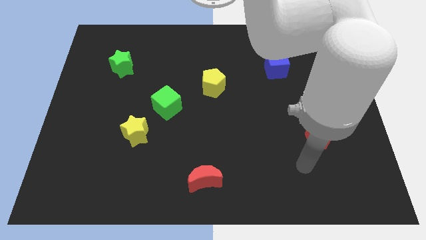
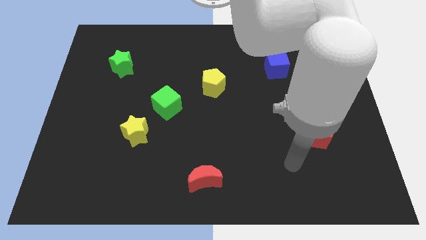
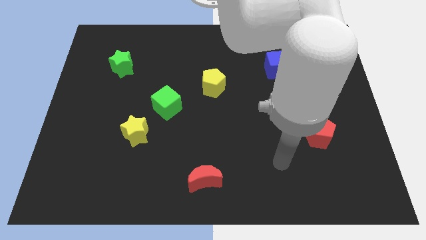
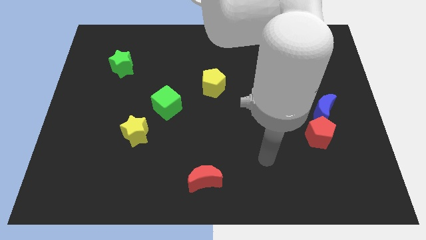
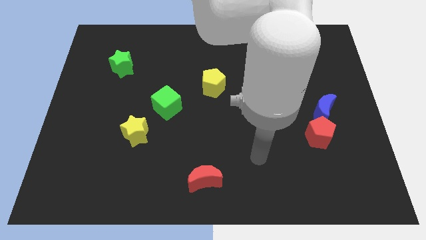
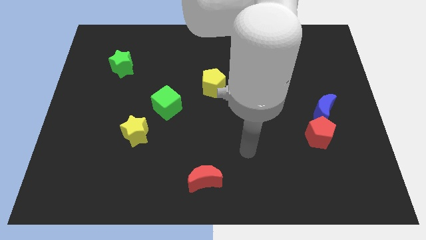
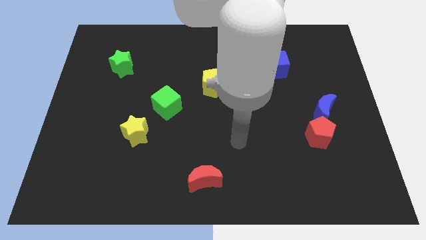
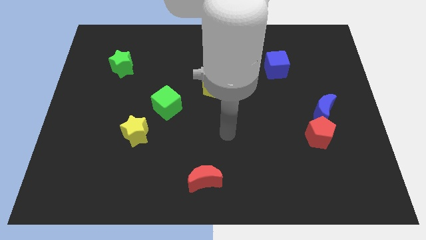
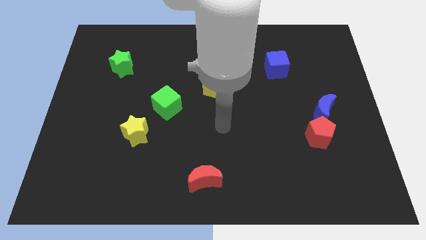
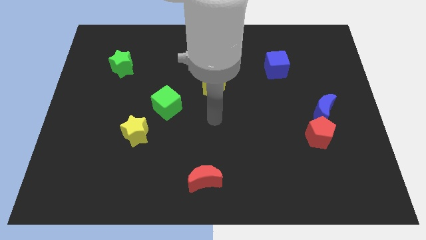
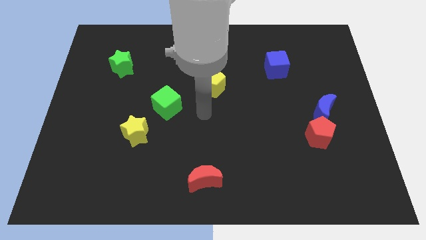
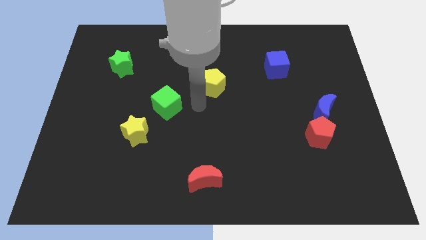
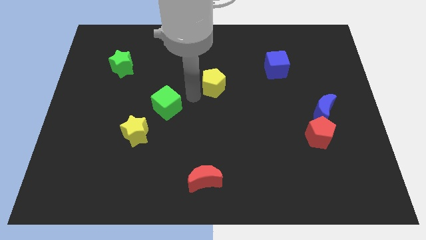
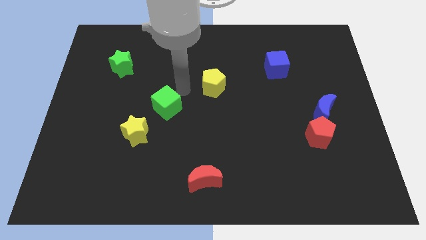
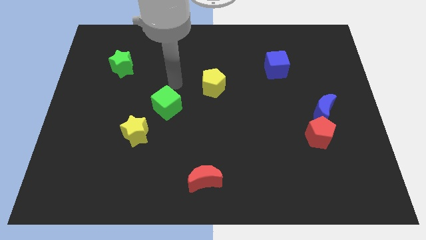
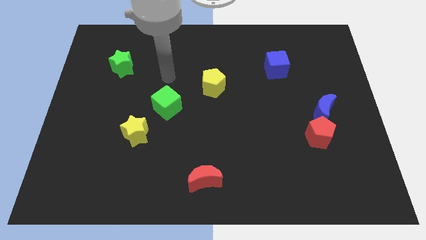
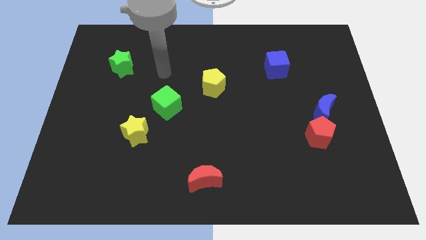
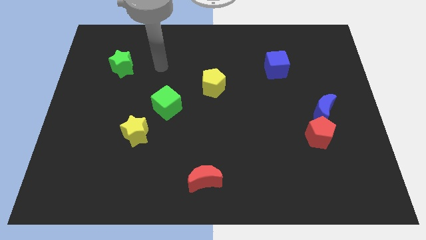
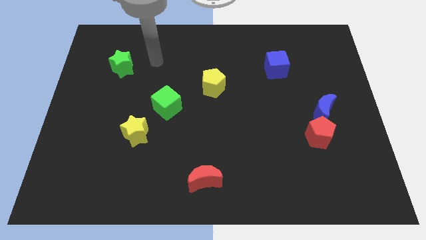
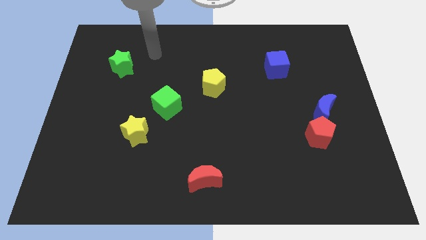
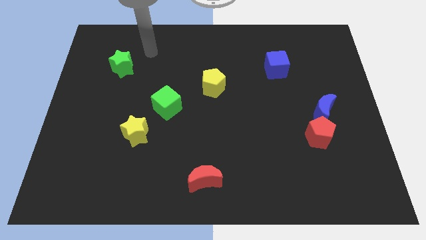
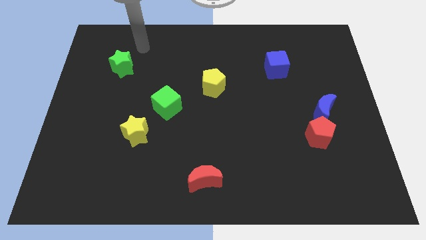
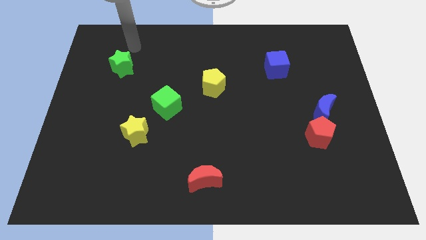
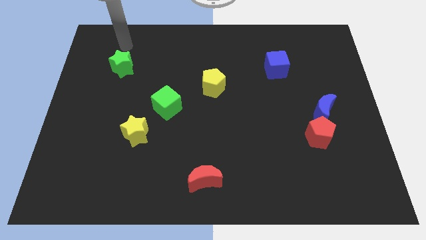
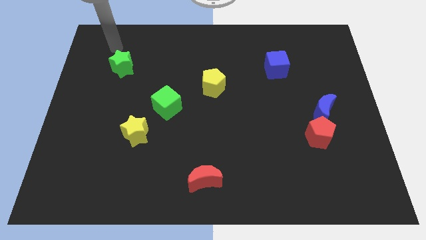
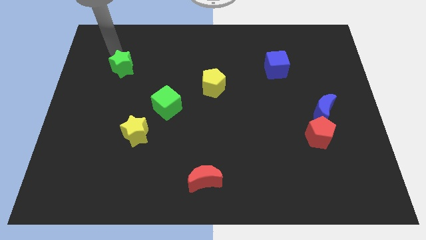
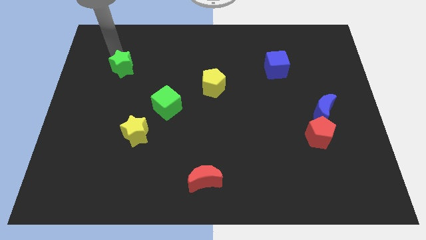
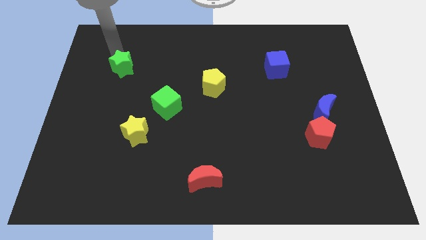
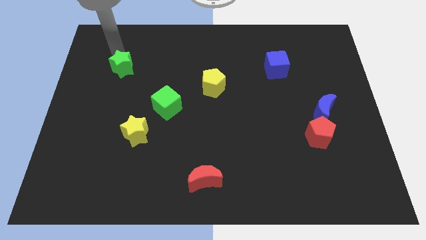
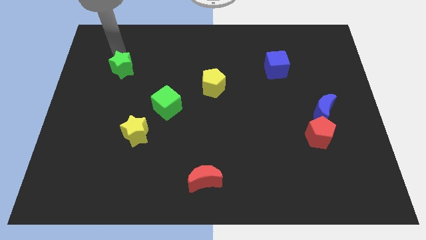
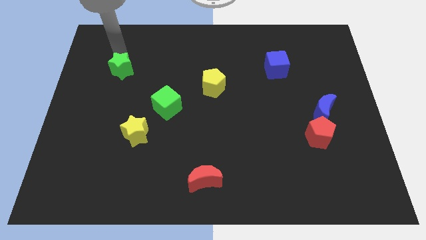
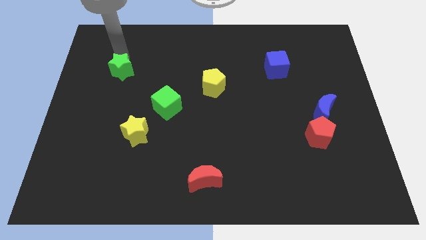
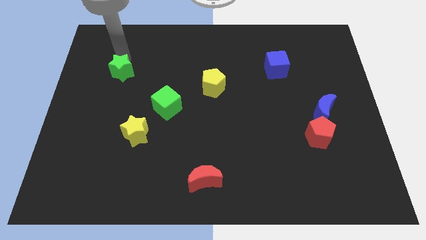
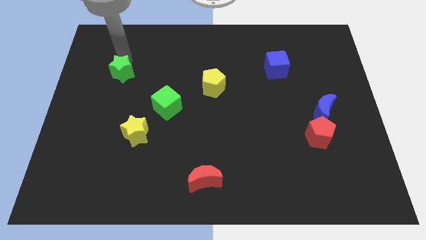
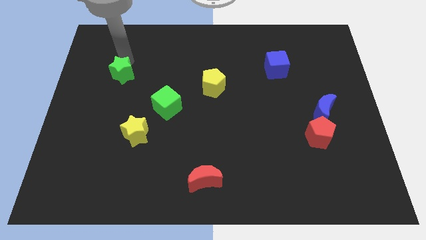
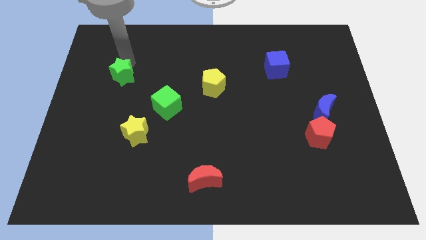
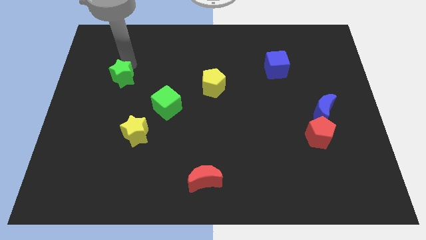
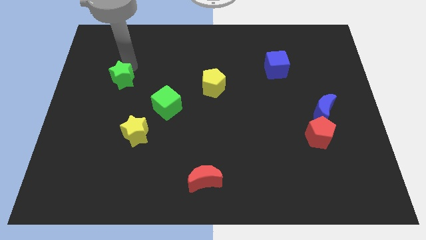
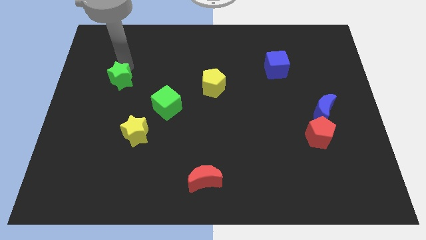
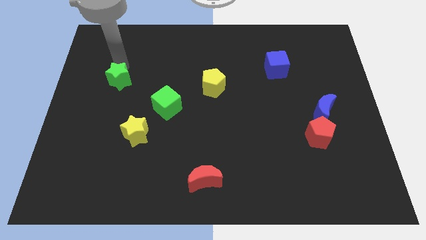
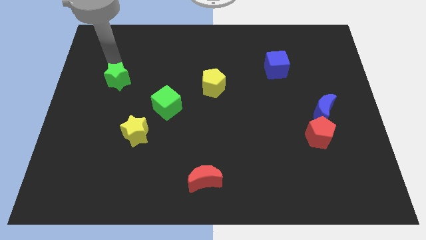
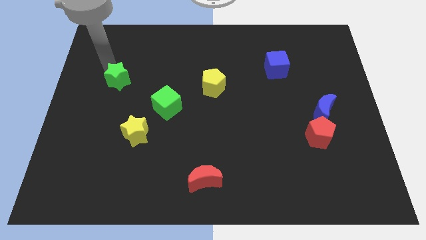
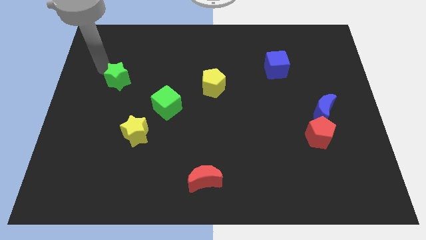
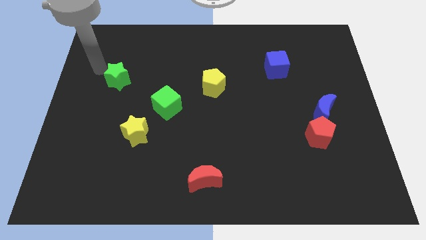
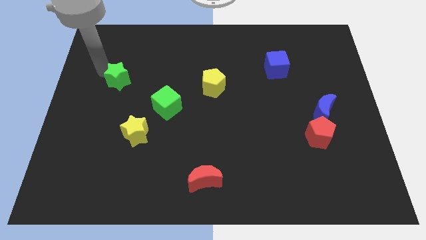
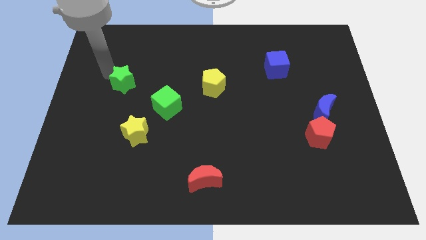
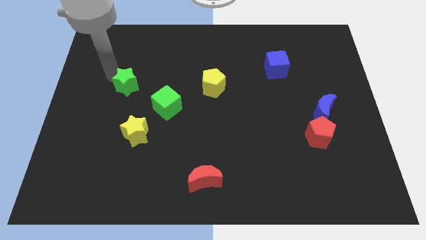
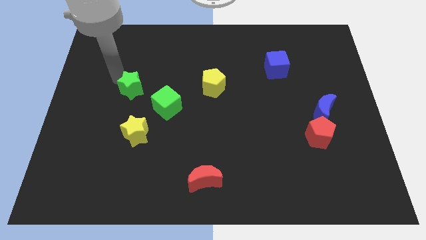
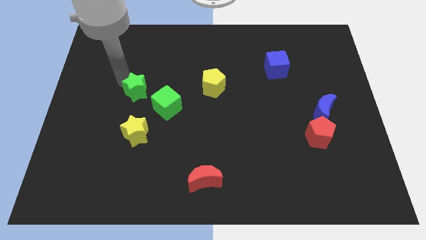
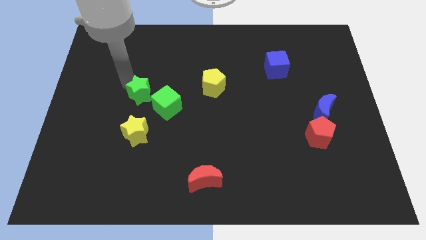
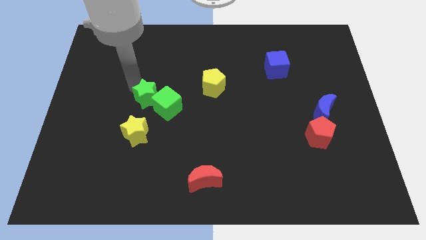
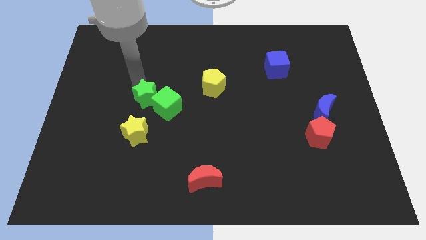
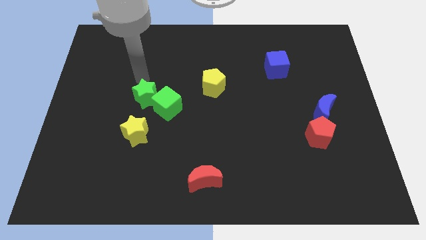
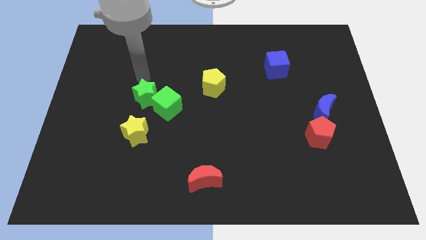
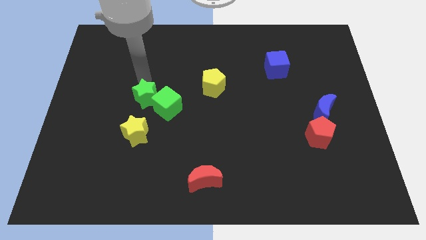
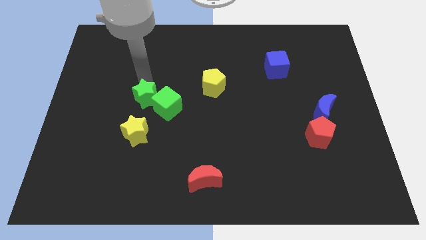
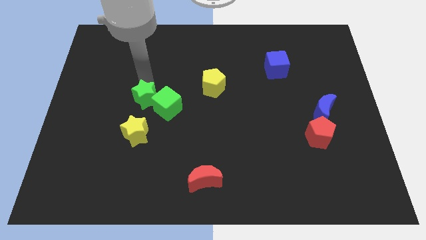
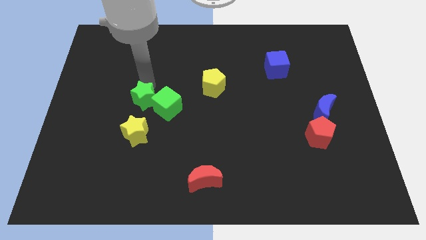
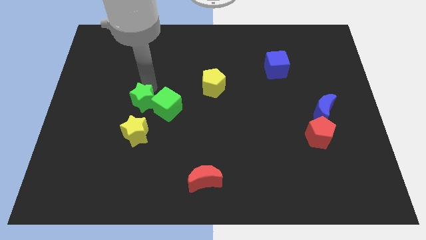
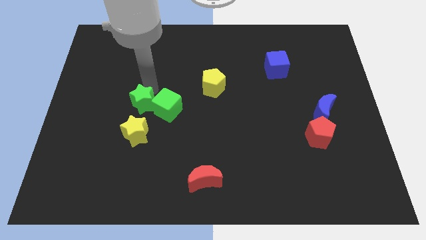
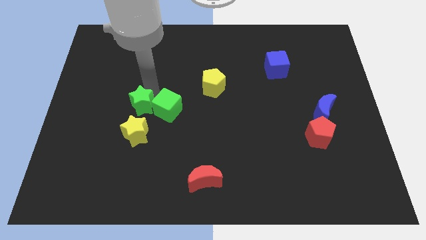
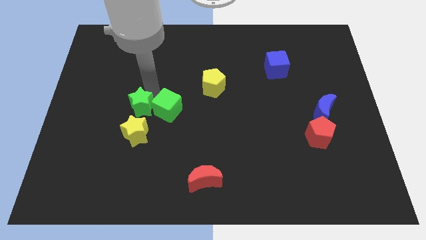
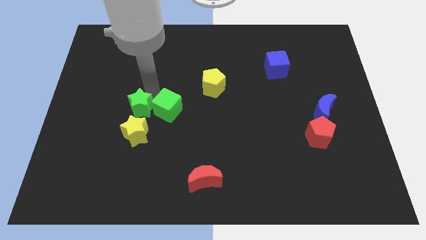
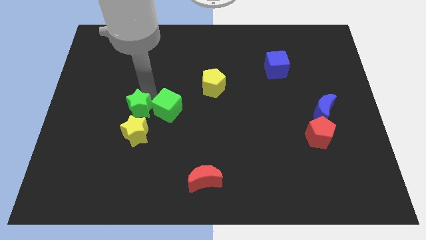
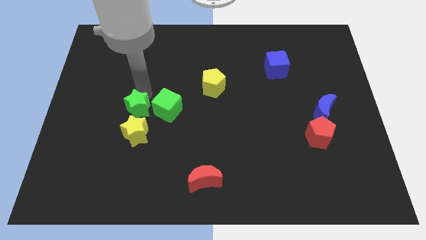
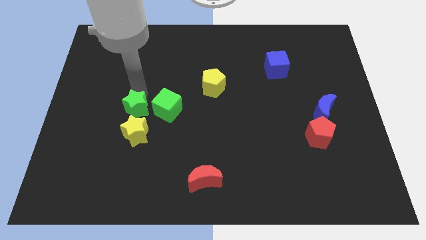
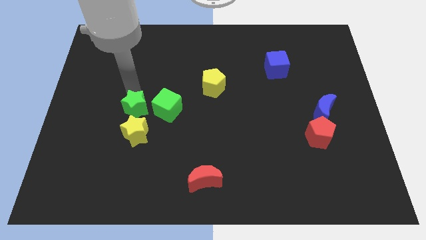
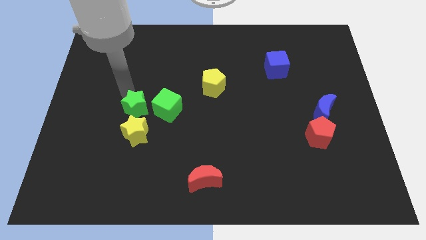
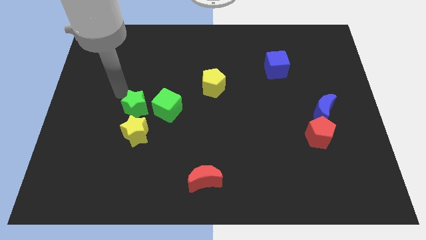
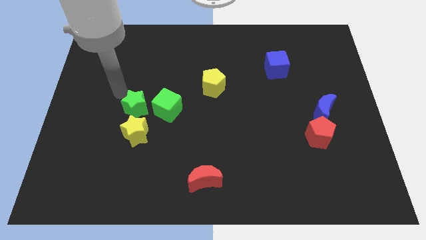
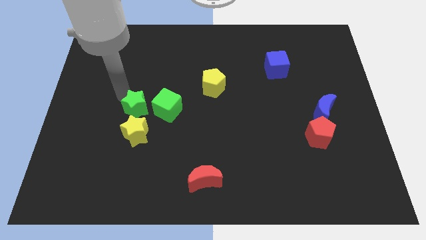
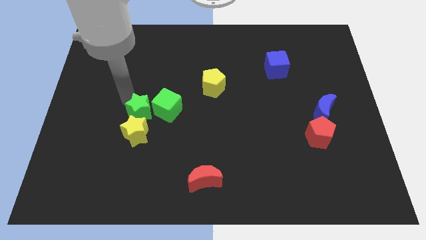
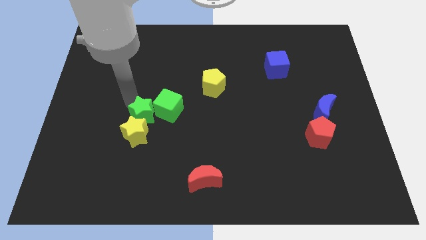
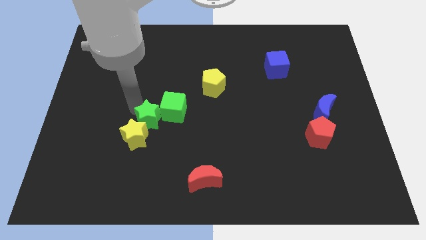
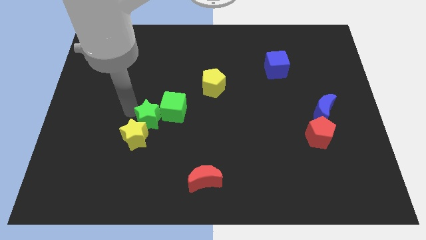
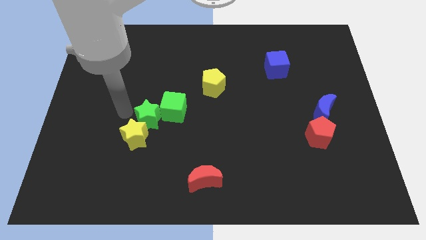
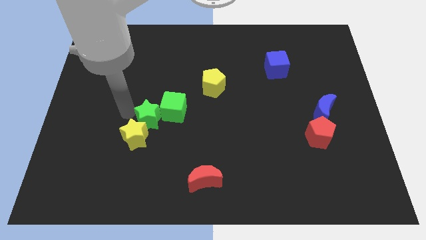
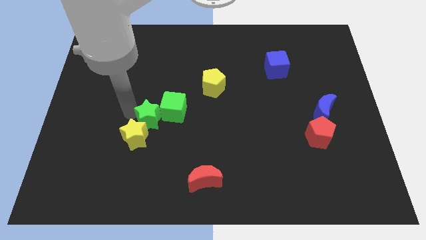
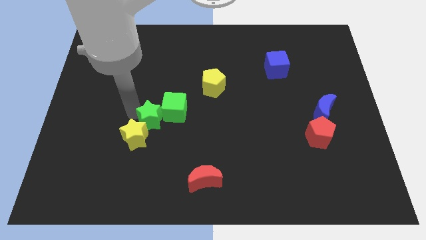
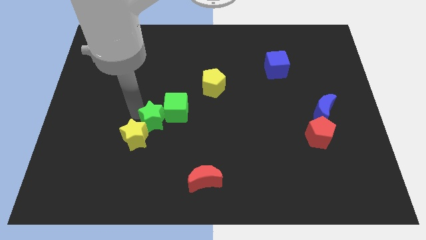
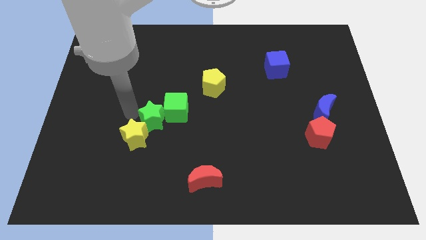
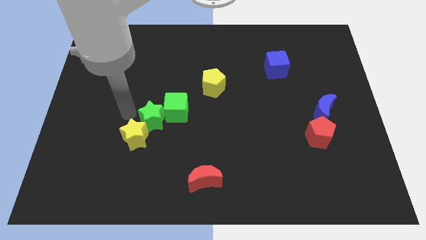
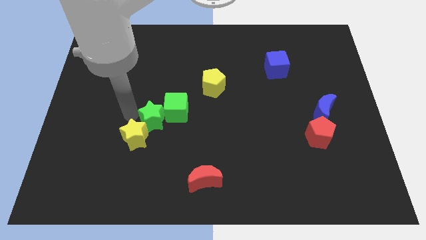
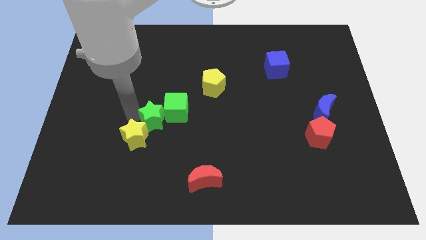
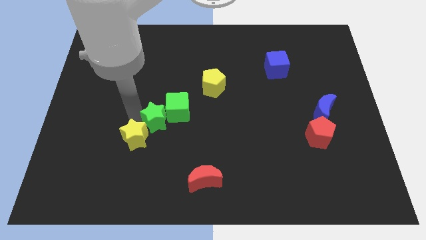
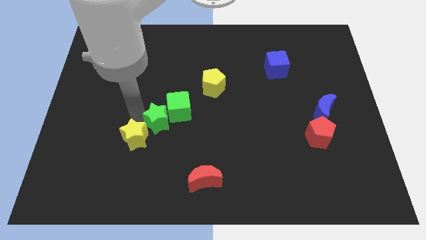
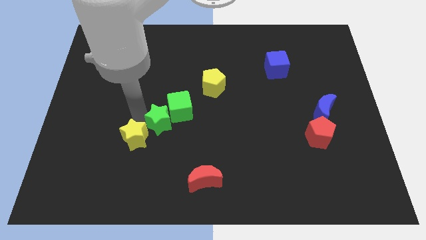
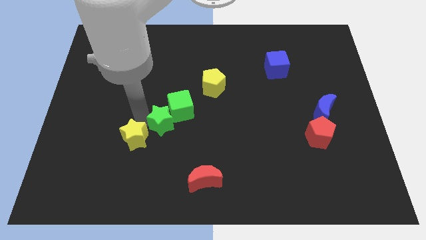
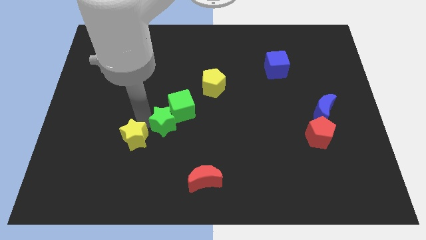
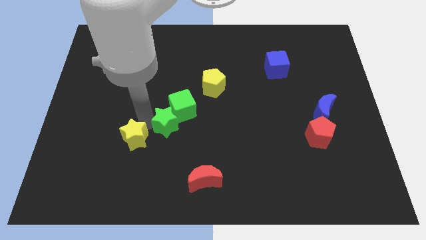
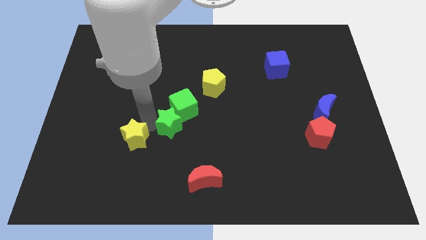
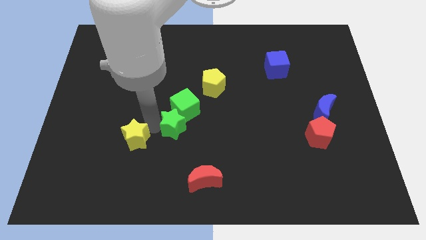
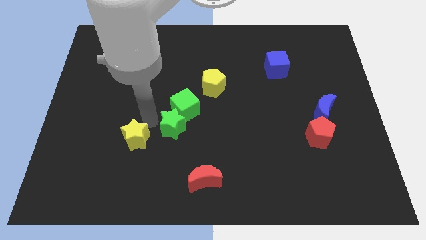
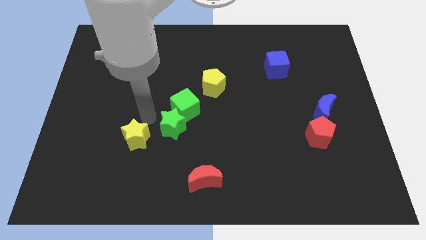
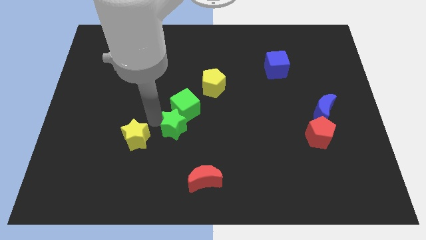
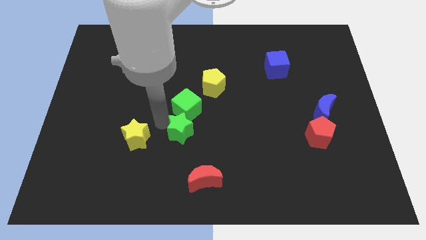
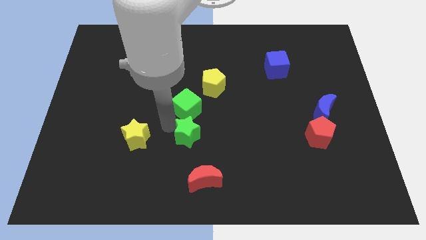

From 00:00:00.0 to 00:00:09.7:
push the green star to the top of the red moon
